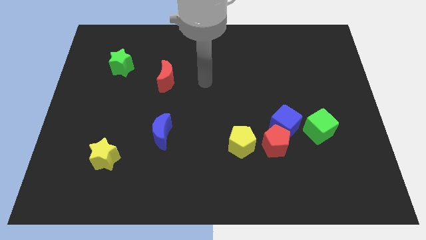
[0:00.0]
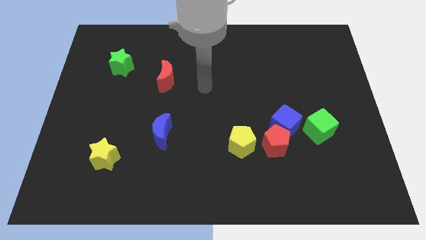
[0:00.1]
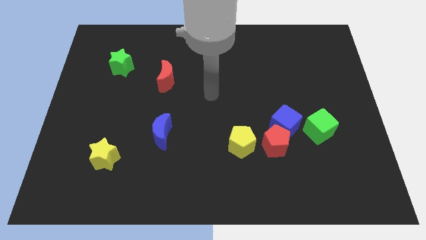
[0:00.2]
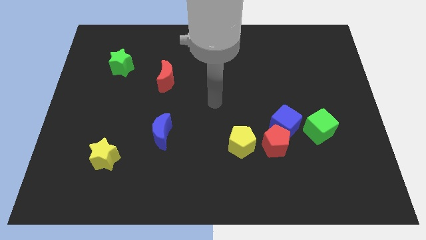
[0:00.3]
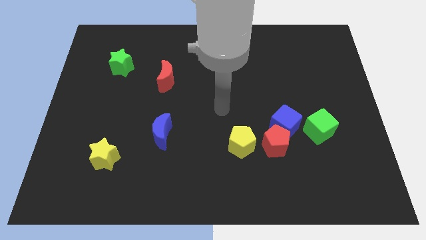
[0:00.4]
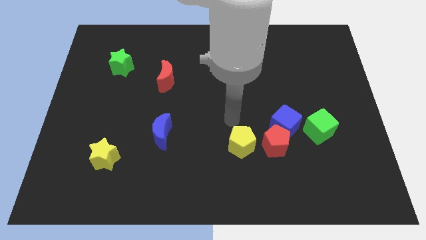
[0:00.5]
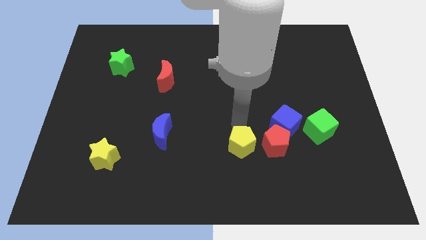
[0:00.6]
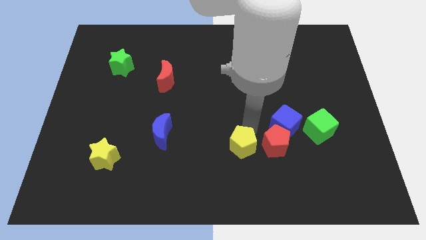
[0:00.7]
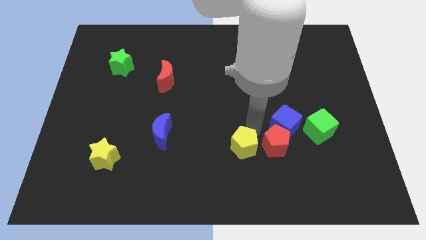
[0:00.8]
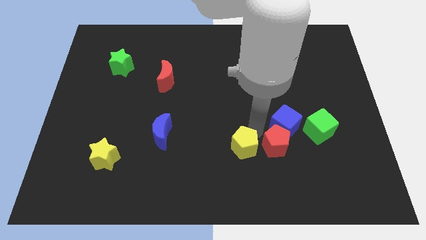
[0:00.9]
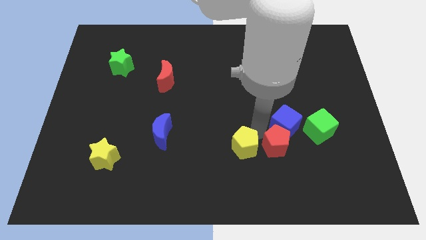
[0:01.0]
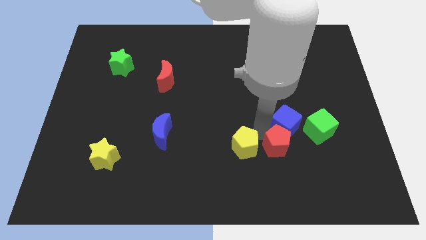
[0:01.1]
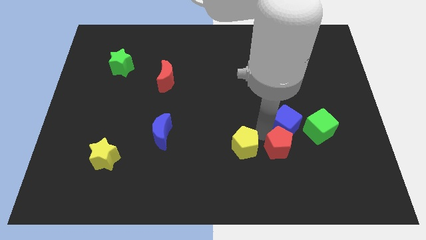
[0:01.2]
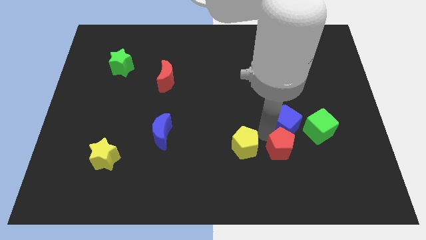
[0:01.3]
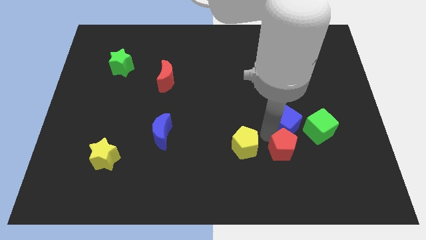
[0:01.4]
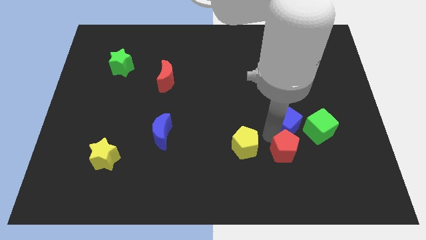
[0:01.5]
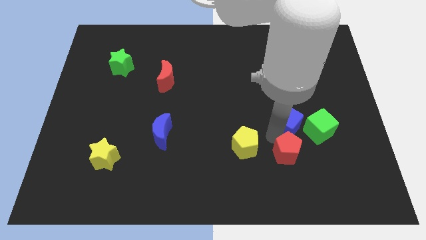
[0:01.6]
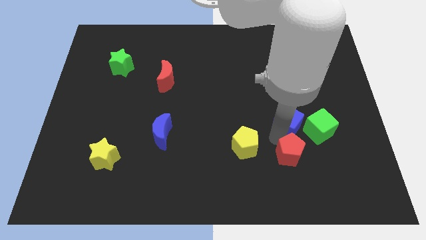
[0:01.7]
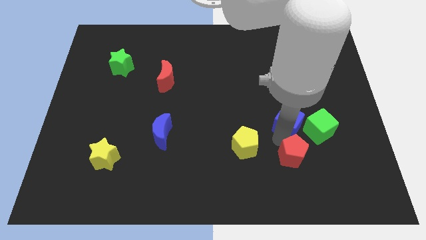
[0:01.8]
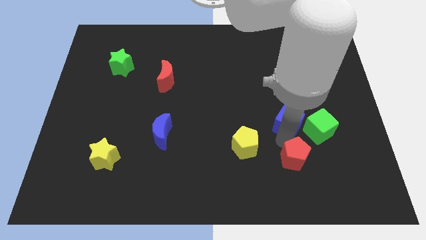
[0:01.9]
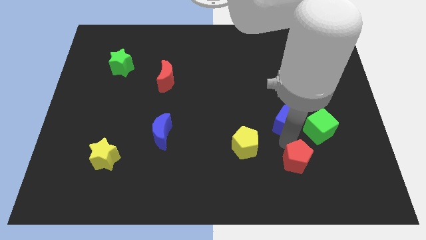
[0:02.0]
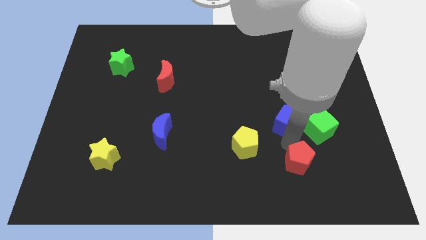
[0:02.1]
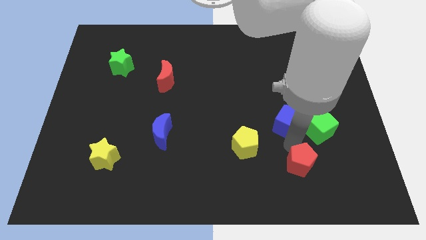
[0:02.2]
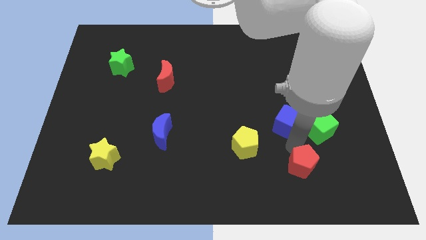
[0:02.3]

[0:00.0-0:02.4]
separate the red pentagon from the blue cube and yellow pentagon

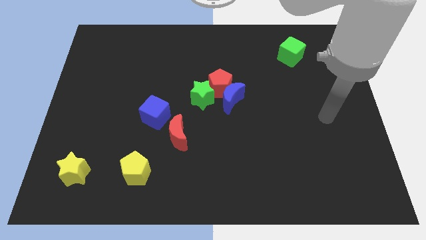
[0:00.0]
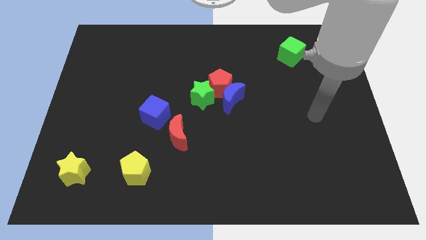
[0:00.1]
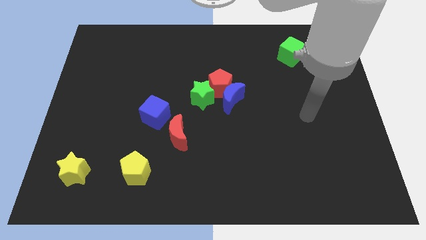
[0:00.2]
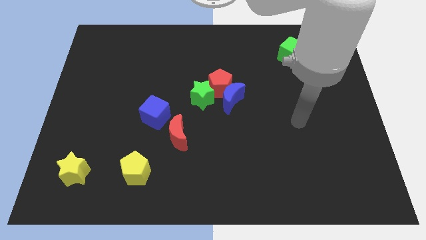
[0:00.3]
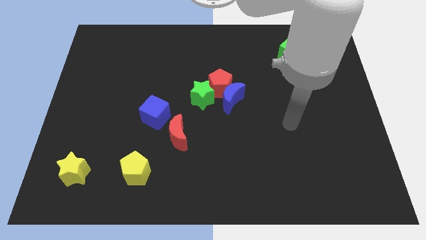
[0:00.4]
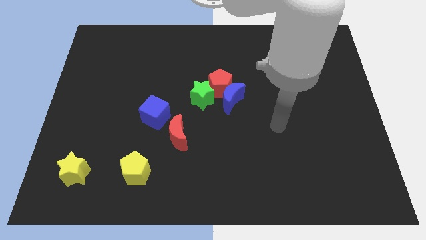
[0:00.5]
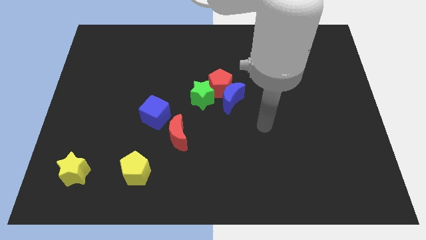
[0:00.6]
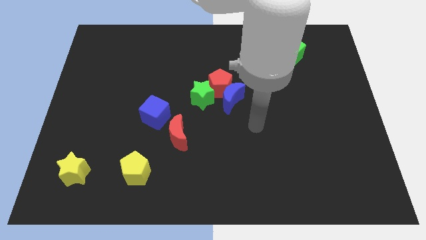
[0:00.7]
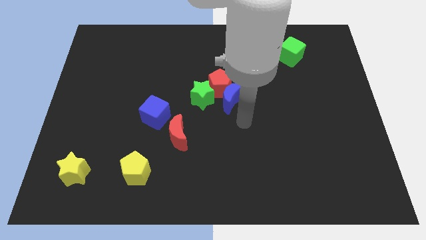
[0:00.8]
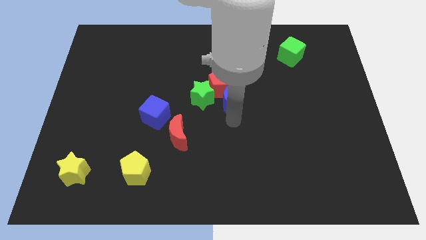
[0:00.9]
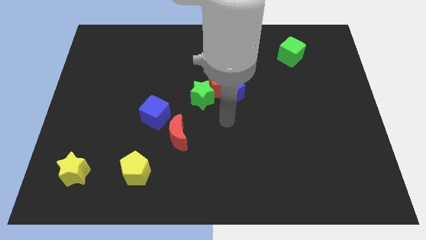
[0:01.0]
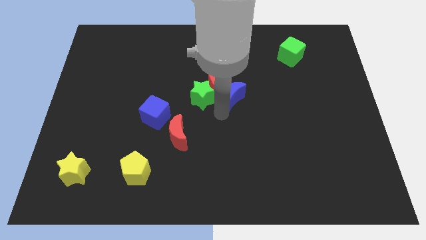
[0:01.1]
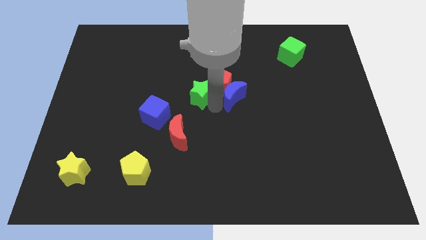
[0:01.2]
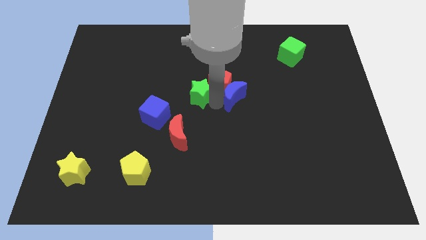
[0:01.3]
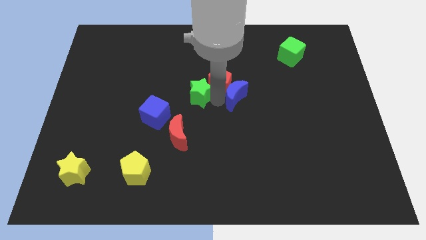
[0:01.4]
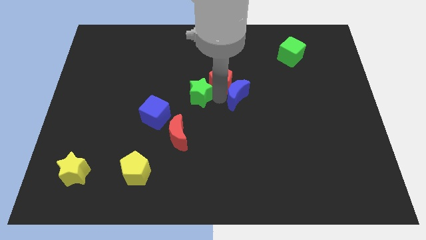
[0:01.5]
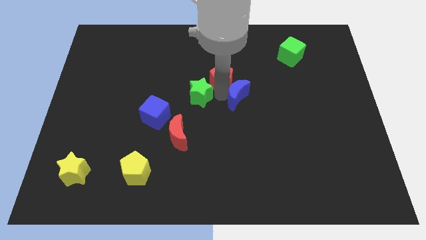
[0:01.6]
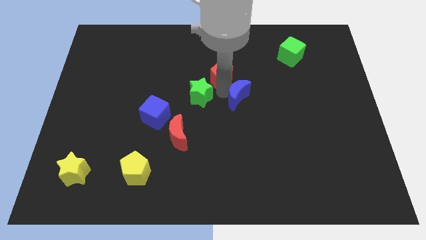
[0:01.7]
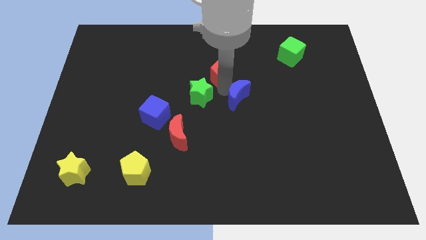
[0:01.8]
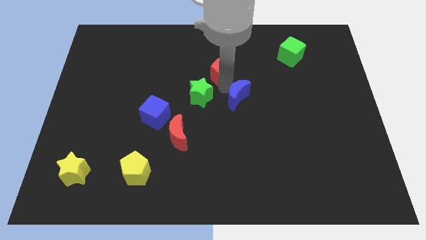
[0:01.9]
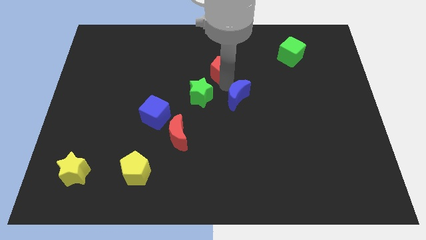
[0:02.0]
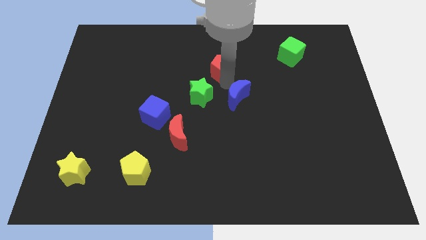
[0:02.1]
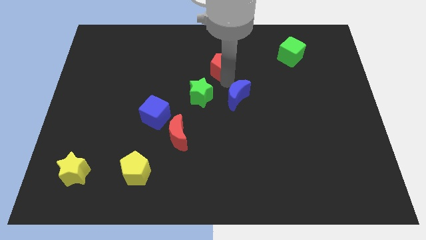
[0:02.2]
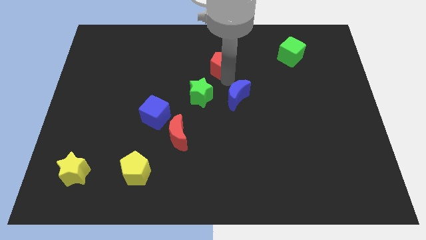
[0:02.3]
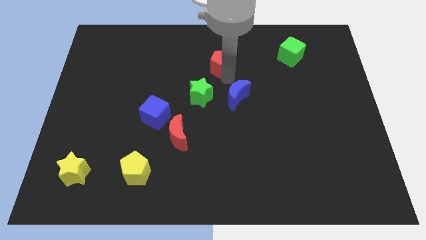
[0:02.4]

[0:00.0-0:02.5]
pull the red pentagon apart from the blue moon and green star

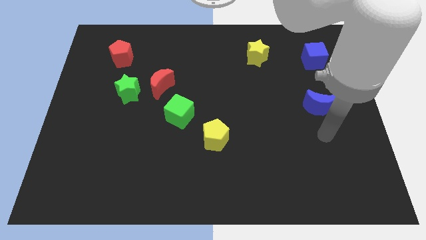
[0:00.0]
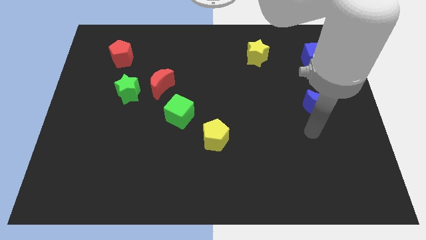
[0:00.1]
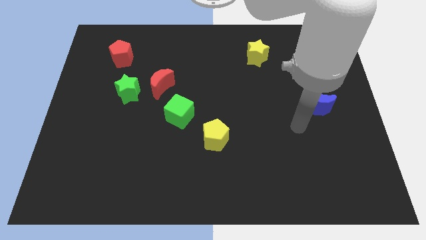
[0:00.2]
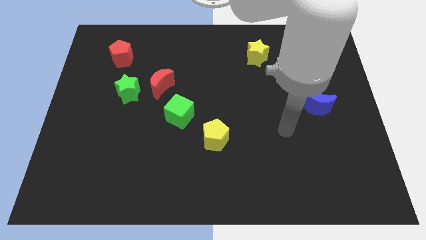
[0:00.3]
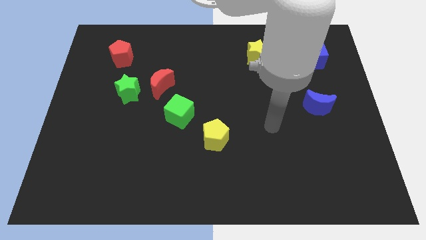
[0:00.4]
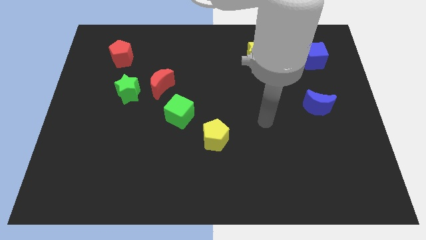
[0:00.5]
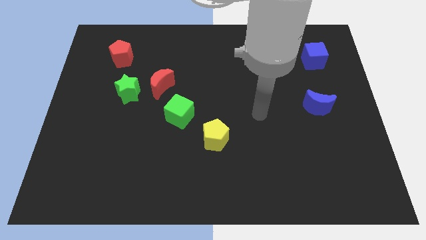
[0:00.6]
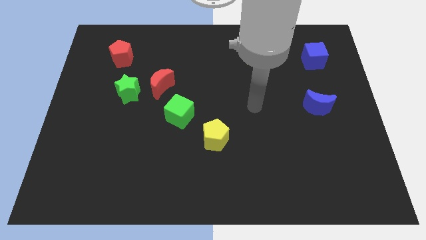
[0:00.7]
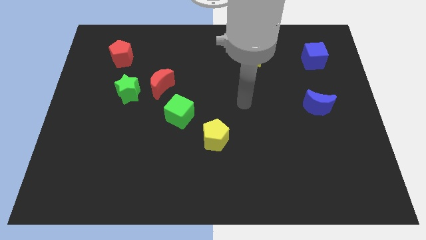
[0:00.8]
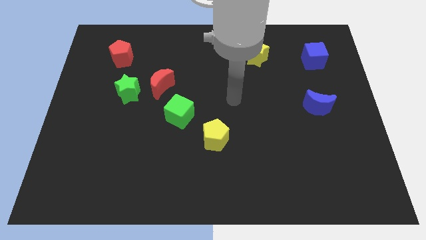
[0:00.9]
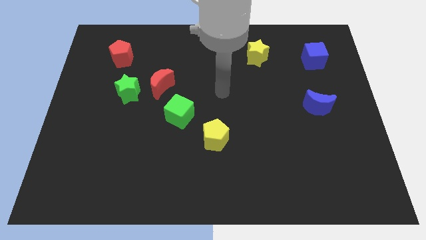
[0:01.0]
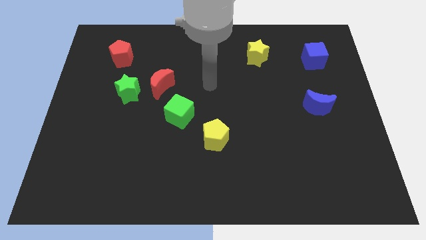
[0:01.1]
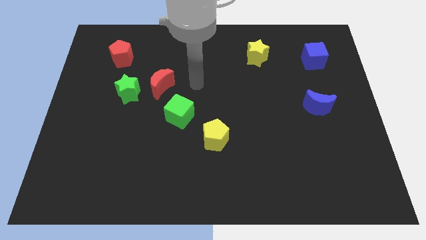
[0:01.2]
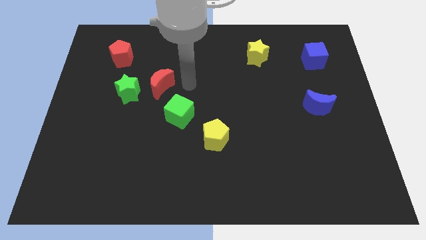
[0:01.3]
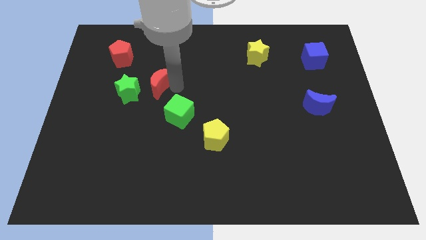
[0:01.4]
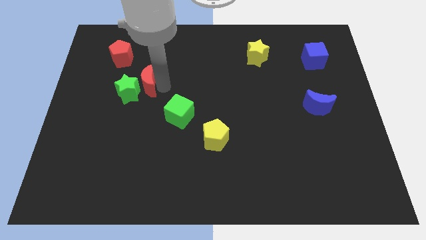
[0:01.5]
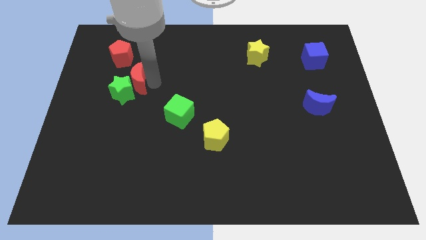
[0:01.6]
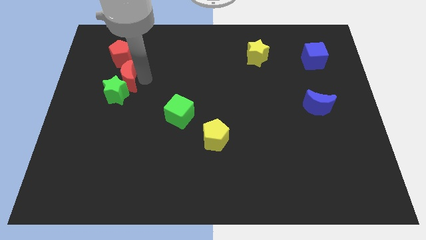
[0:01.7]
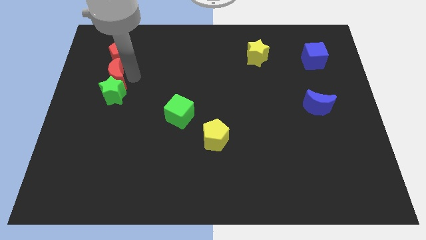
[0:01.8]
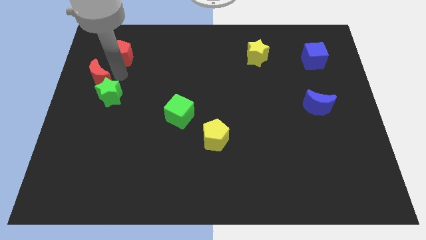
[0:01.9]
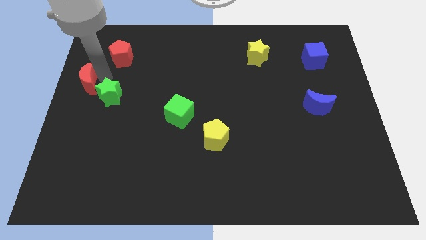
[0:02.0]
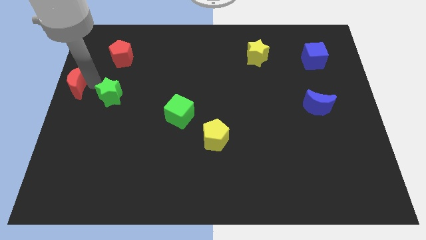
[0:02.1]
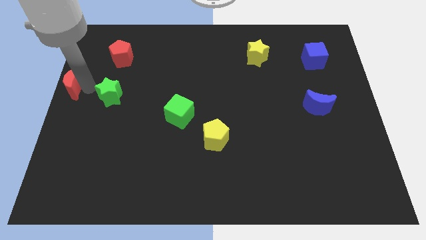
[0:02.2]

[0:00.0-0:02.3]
pull the green star apart from the red moon

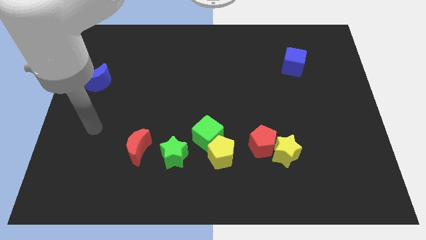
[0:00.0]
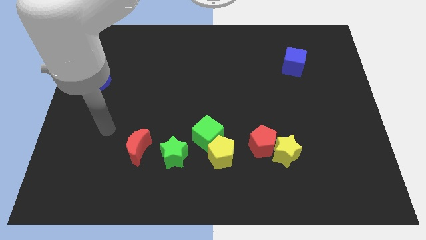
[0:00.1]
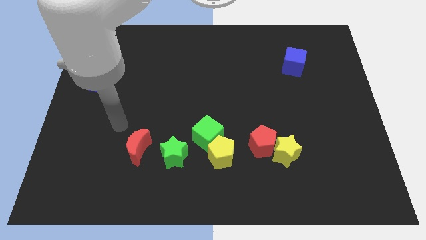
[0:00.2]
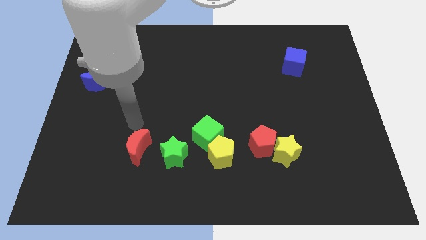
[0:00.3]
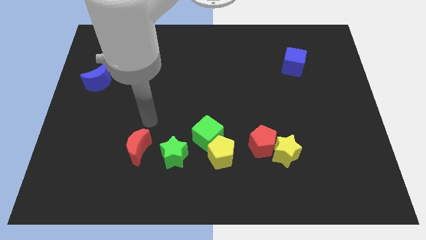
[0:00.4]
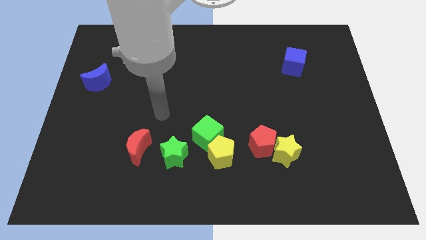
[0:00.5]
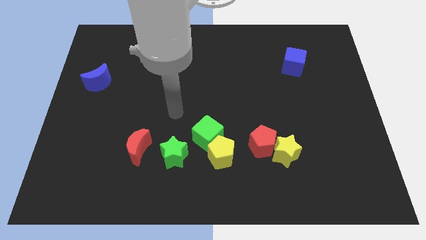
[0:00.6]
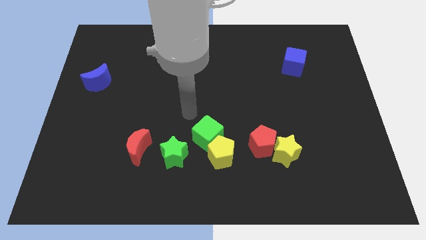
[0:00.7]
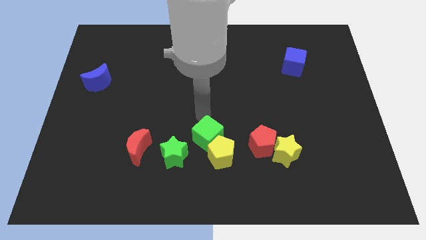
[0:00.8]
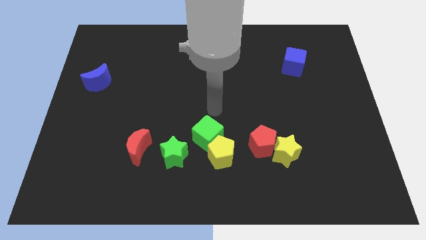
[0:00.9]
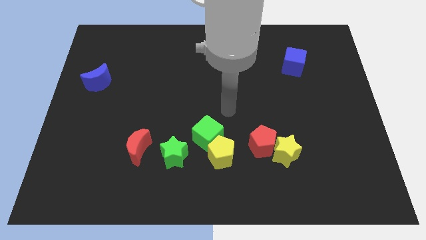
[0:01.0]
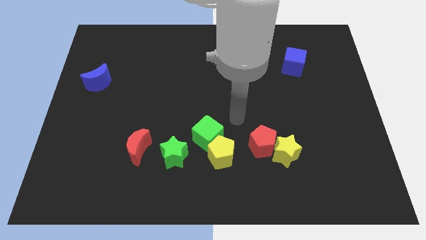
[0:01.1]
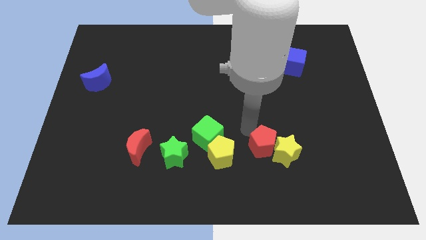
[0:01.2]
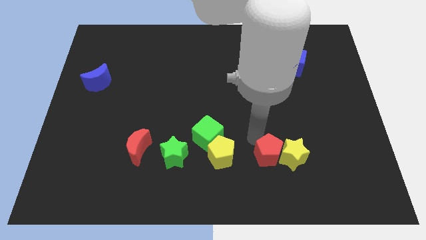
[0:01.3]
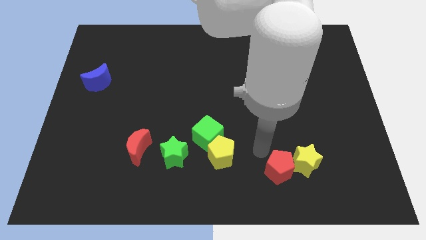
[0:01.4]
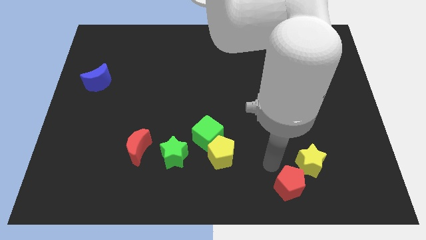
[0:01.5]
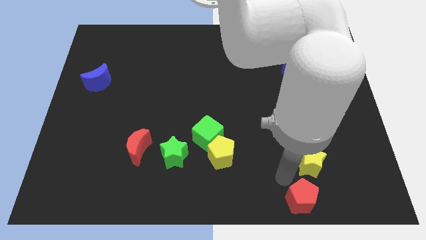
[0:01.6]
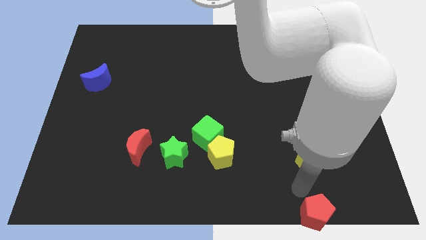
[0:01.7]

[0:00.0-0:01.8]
move the yellow star away from the red pentagon

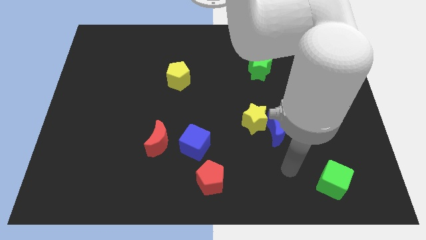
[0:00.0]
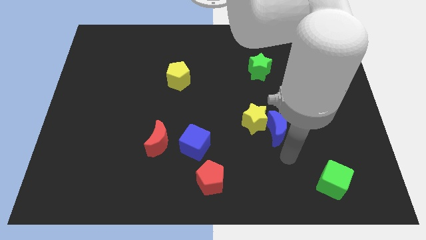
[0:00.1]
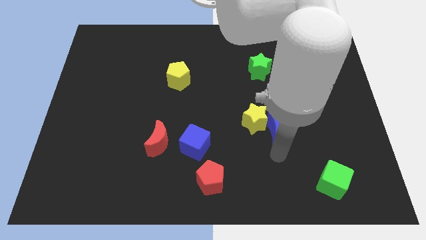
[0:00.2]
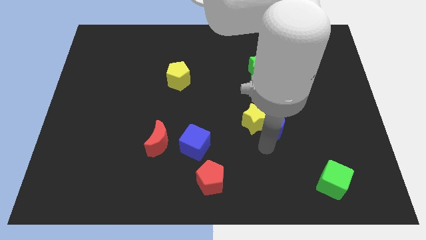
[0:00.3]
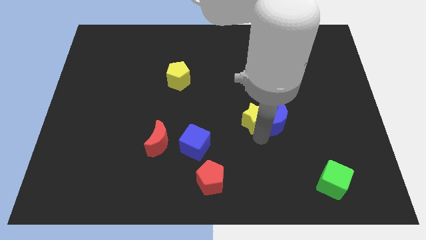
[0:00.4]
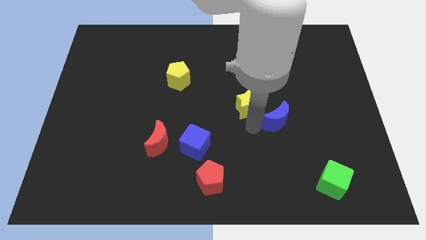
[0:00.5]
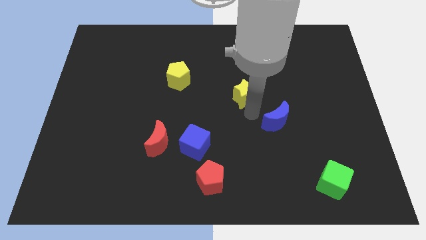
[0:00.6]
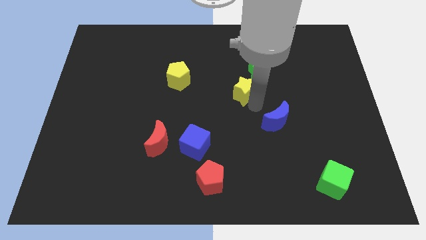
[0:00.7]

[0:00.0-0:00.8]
pull the blue moon apart from the yellow star
